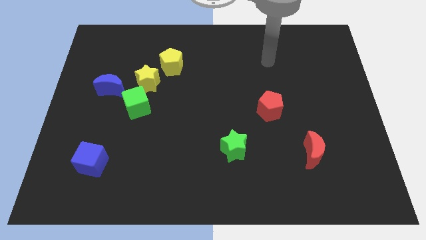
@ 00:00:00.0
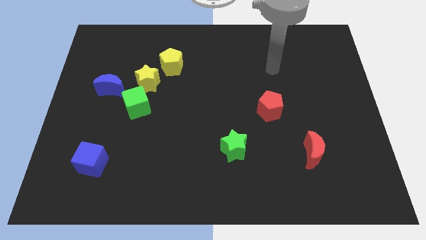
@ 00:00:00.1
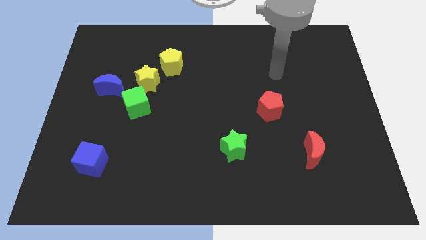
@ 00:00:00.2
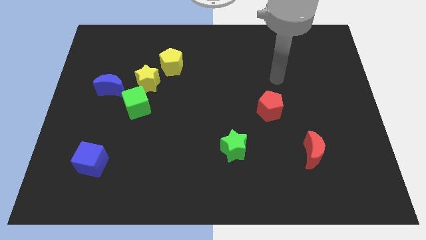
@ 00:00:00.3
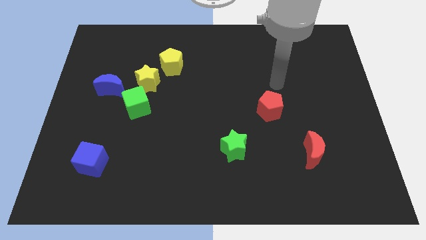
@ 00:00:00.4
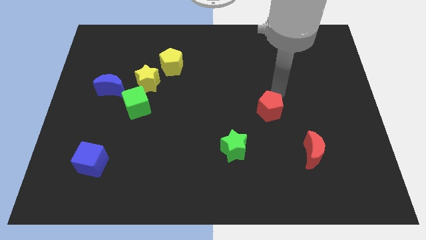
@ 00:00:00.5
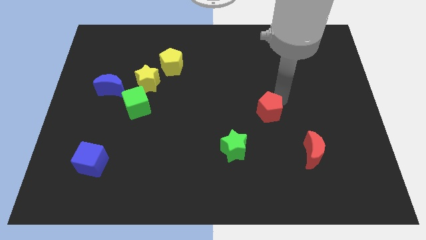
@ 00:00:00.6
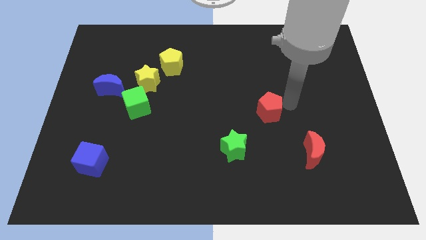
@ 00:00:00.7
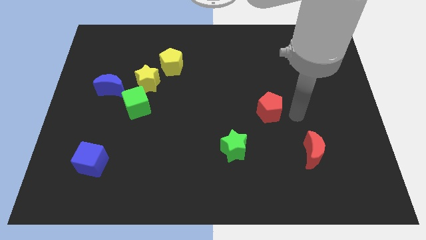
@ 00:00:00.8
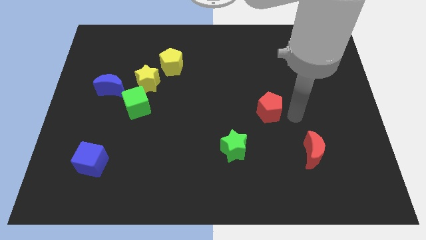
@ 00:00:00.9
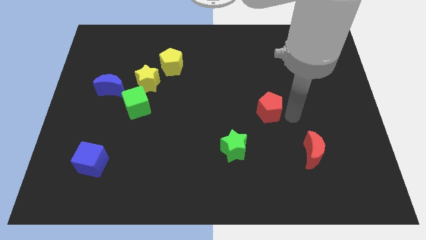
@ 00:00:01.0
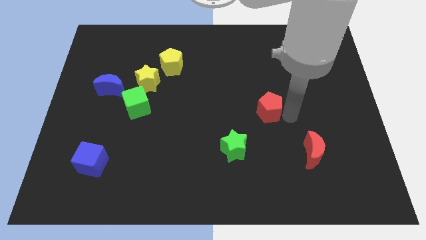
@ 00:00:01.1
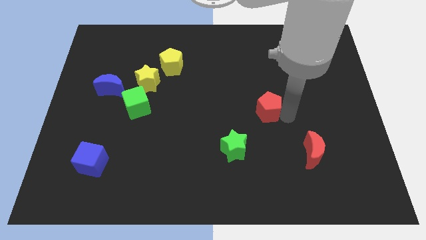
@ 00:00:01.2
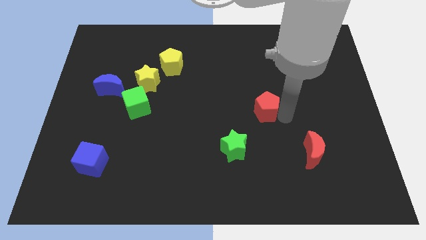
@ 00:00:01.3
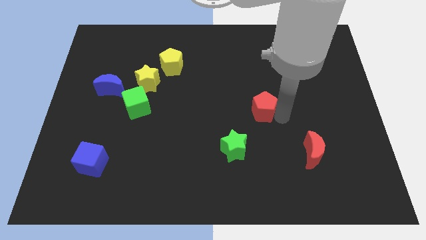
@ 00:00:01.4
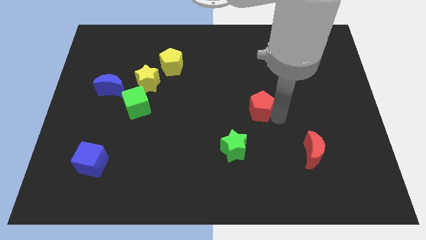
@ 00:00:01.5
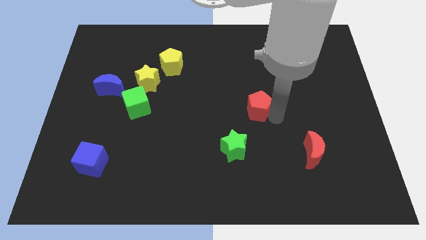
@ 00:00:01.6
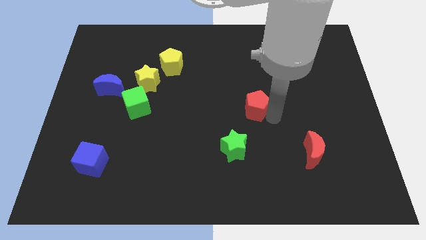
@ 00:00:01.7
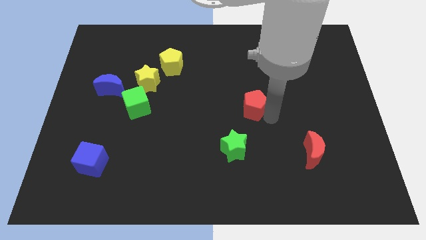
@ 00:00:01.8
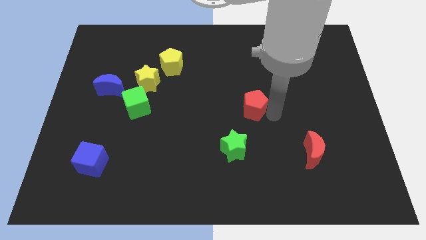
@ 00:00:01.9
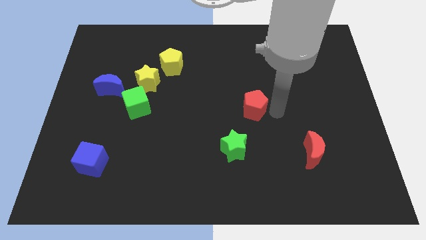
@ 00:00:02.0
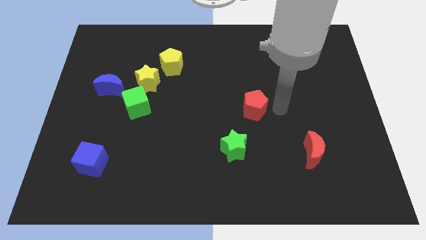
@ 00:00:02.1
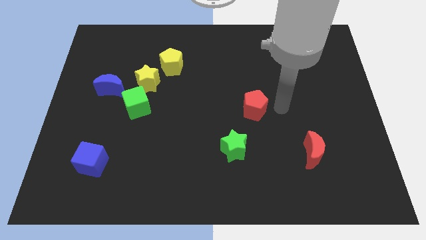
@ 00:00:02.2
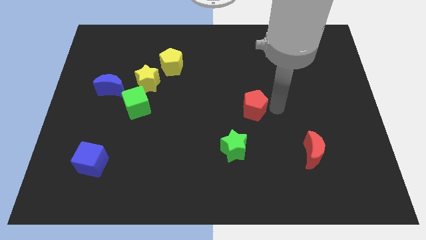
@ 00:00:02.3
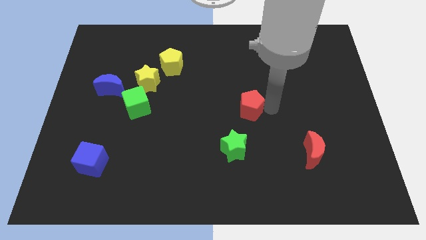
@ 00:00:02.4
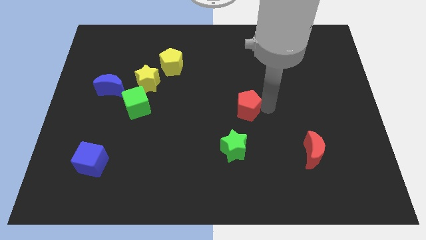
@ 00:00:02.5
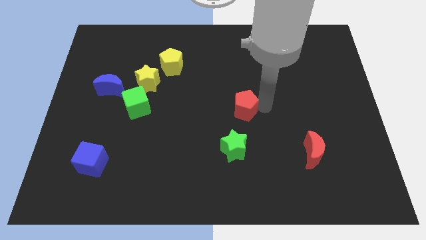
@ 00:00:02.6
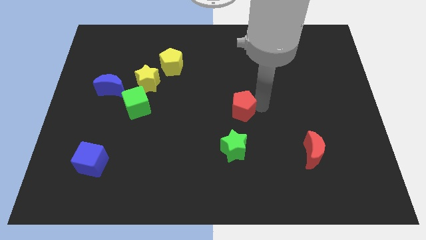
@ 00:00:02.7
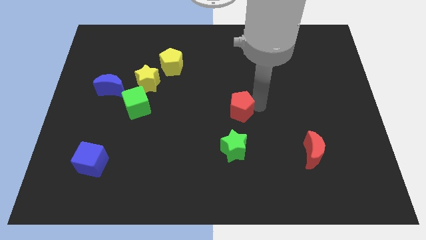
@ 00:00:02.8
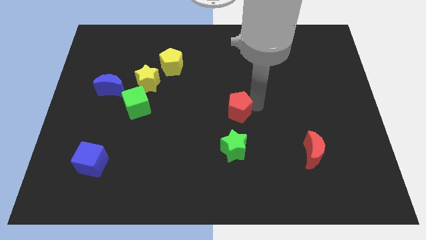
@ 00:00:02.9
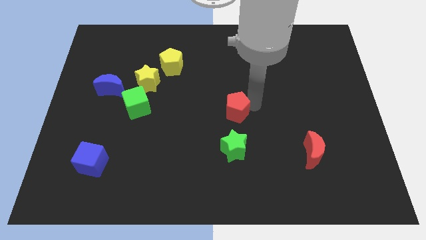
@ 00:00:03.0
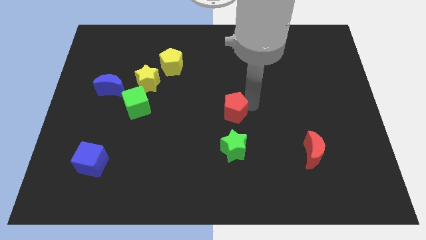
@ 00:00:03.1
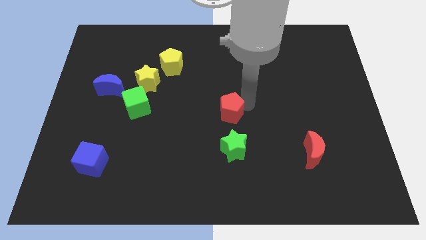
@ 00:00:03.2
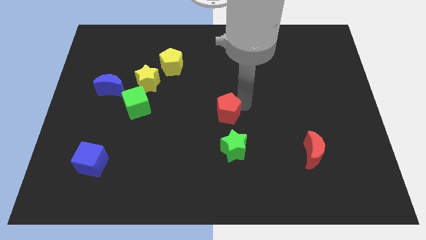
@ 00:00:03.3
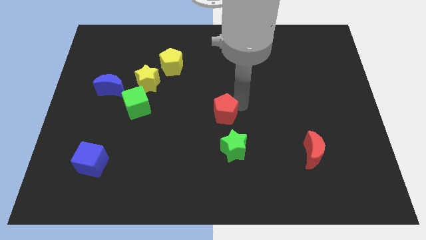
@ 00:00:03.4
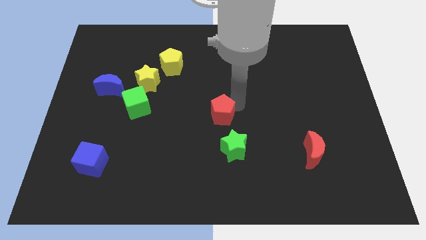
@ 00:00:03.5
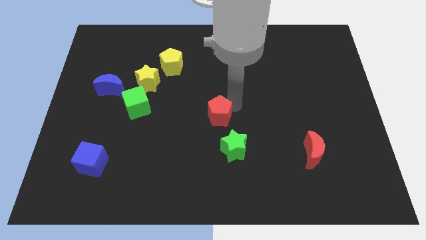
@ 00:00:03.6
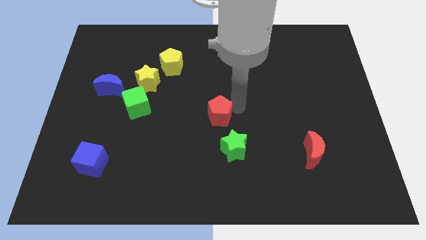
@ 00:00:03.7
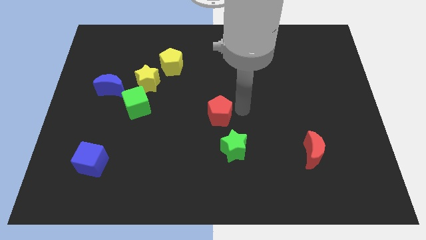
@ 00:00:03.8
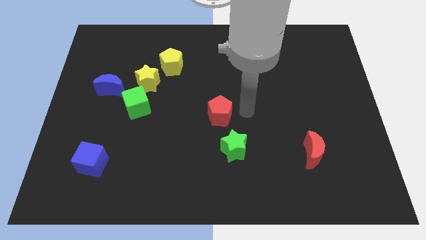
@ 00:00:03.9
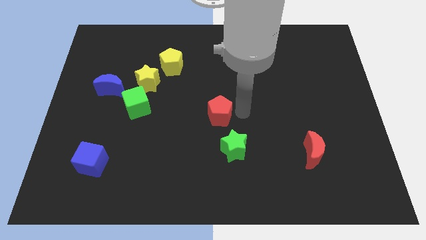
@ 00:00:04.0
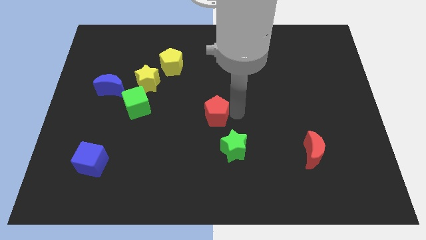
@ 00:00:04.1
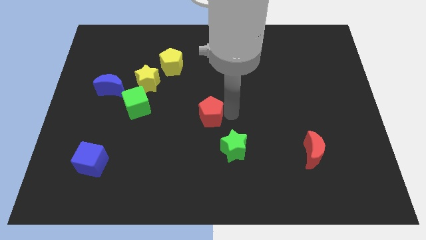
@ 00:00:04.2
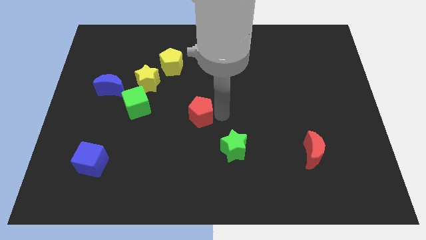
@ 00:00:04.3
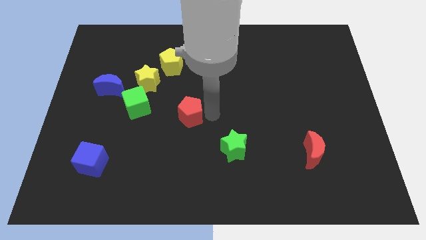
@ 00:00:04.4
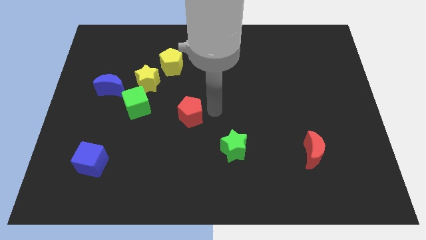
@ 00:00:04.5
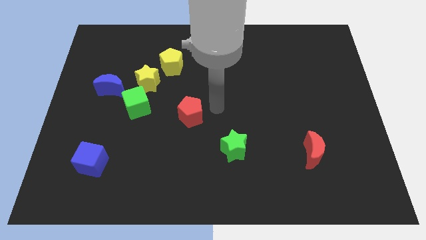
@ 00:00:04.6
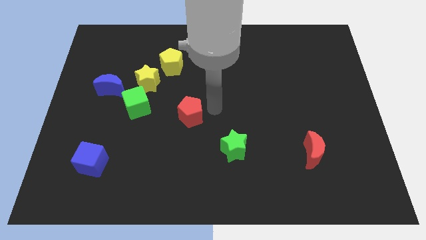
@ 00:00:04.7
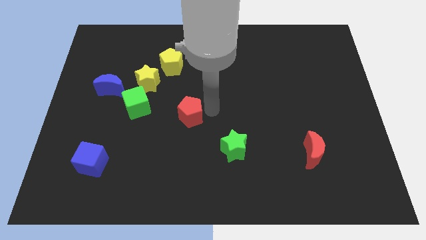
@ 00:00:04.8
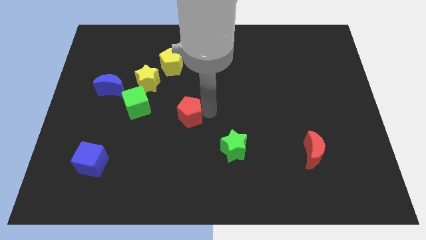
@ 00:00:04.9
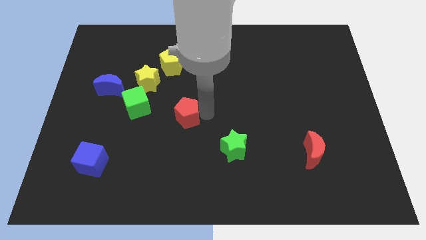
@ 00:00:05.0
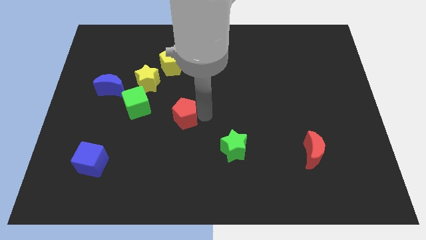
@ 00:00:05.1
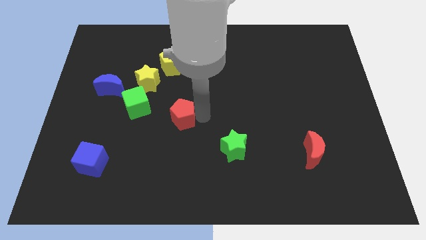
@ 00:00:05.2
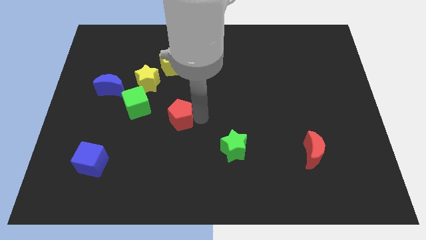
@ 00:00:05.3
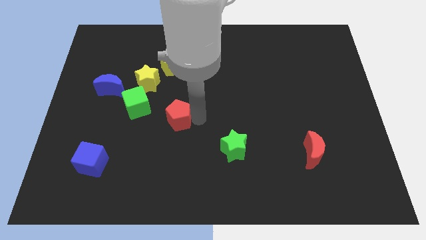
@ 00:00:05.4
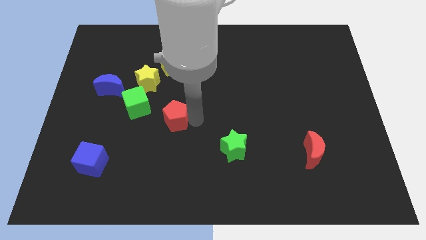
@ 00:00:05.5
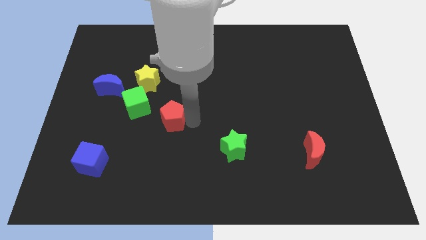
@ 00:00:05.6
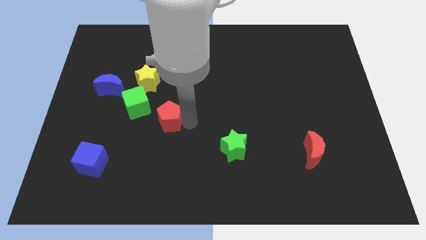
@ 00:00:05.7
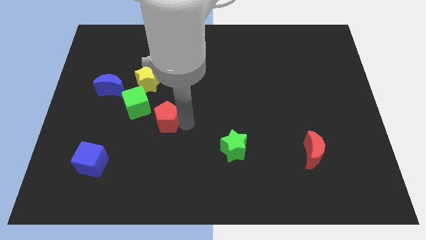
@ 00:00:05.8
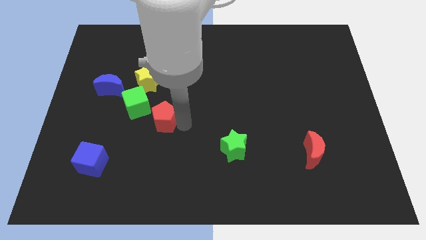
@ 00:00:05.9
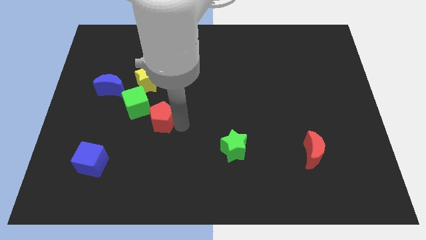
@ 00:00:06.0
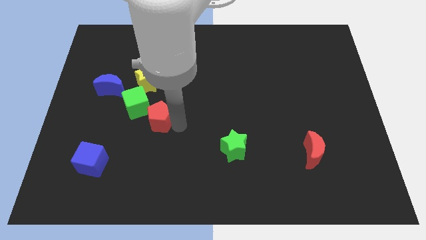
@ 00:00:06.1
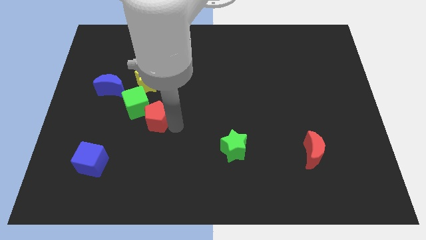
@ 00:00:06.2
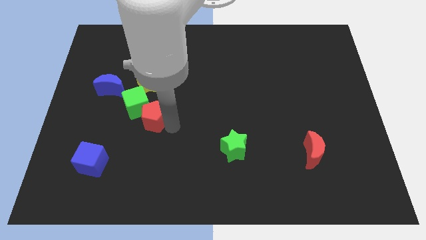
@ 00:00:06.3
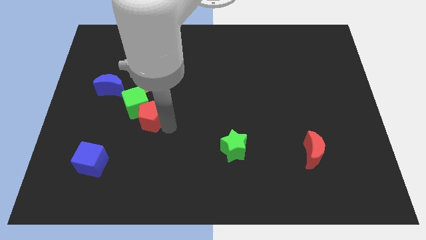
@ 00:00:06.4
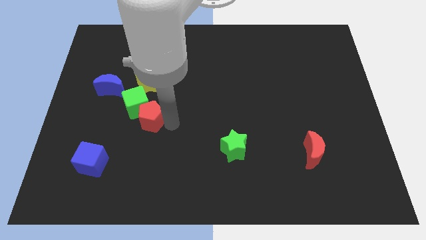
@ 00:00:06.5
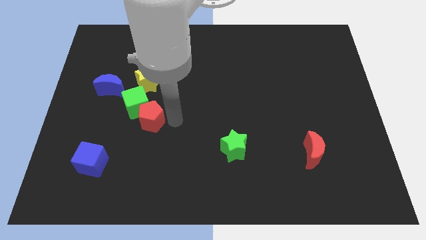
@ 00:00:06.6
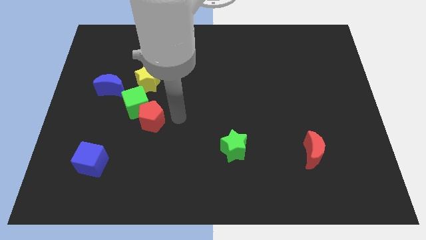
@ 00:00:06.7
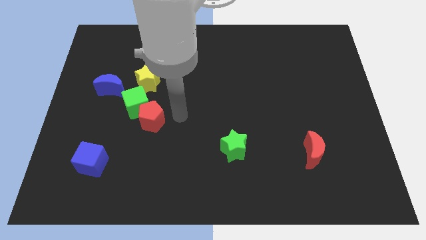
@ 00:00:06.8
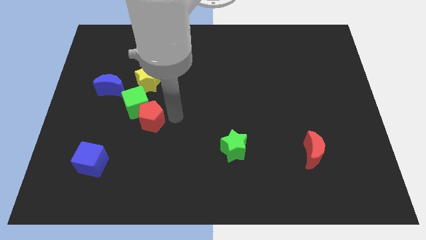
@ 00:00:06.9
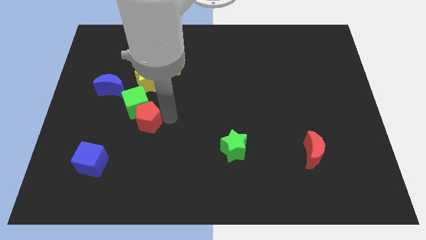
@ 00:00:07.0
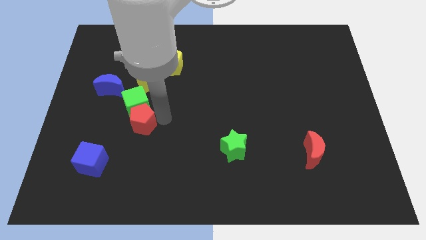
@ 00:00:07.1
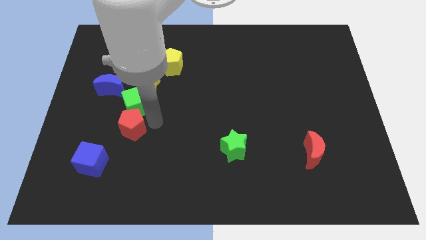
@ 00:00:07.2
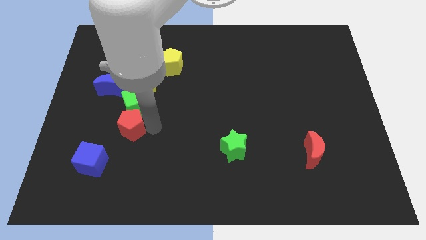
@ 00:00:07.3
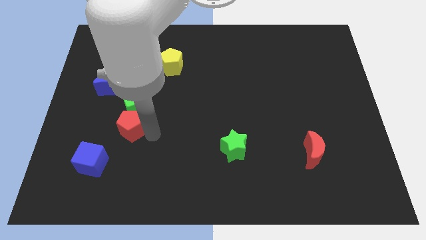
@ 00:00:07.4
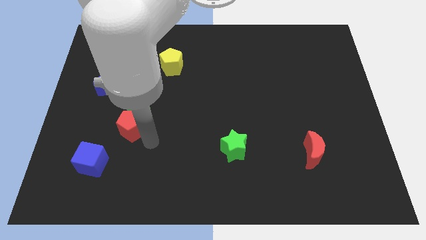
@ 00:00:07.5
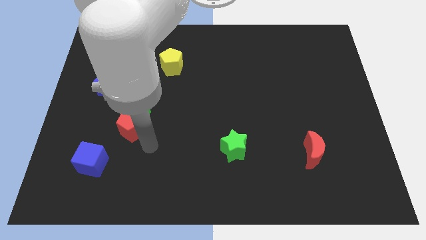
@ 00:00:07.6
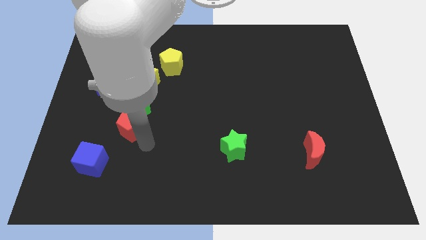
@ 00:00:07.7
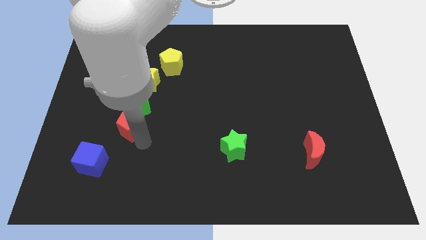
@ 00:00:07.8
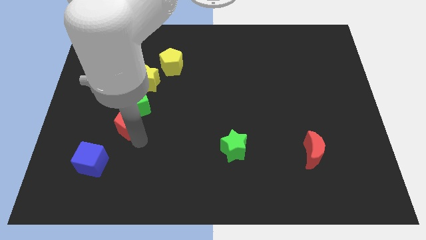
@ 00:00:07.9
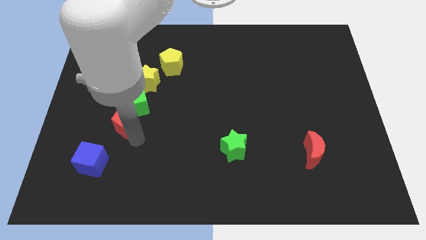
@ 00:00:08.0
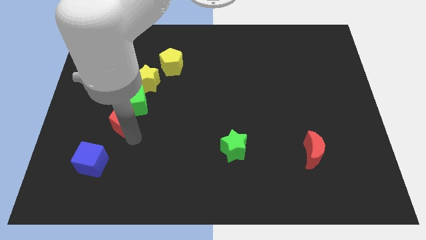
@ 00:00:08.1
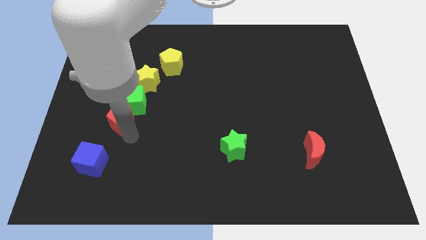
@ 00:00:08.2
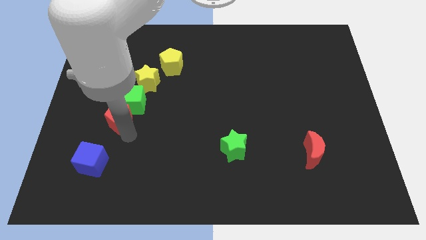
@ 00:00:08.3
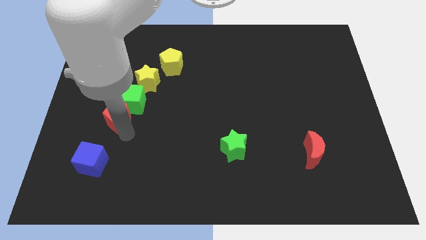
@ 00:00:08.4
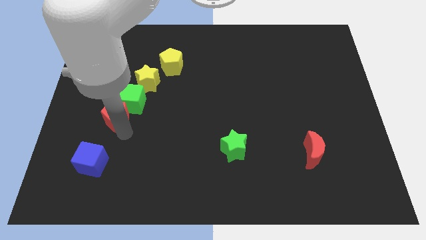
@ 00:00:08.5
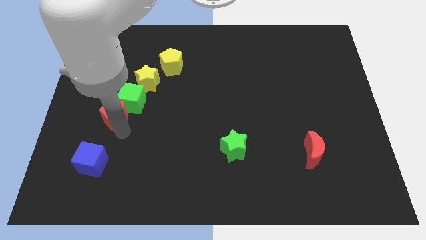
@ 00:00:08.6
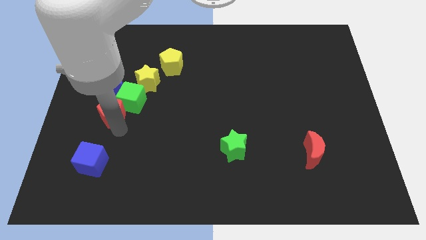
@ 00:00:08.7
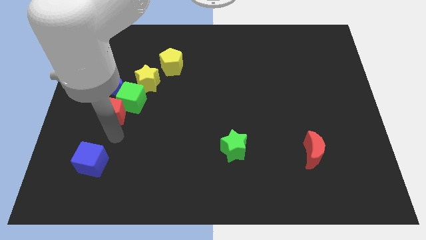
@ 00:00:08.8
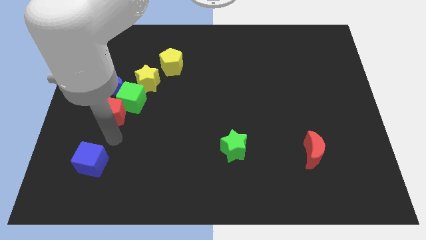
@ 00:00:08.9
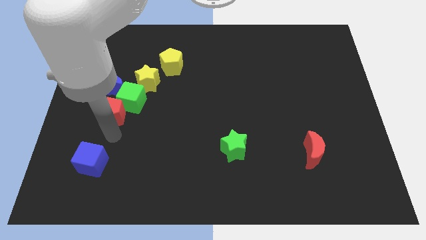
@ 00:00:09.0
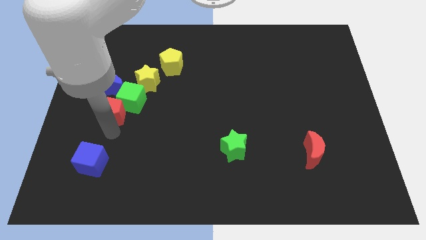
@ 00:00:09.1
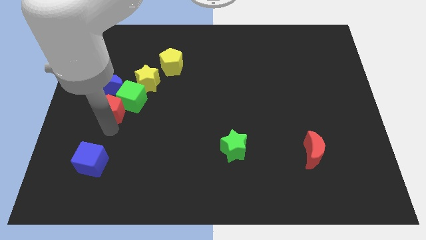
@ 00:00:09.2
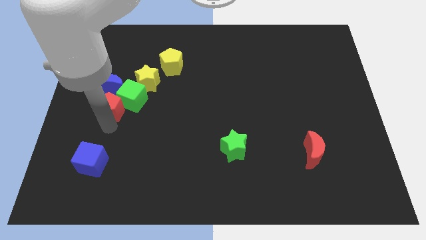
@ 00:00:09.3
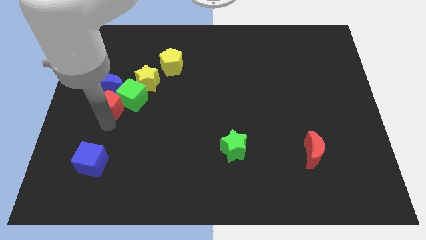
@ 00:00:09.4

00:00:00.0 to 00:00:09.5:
put the red pentagon close to the blue moon
